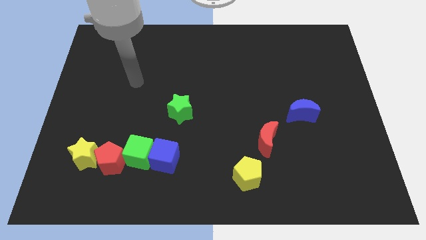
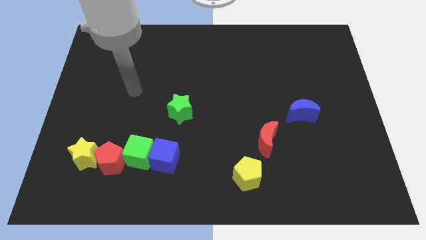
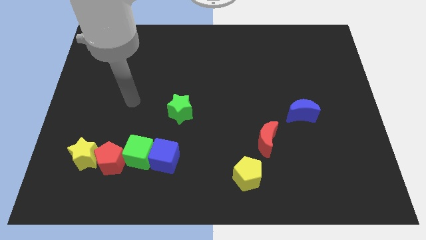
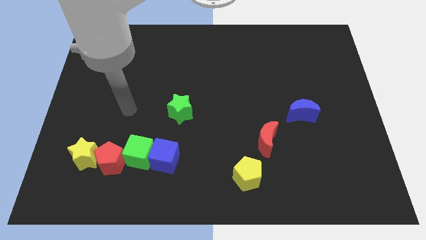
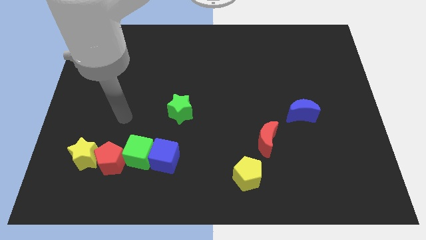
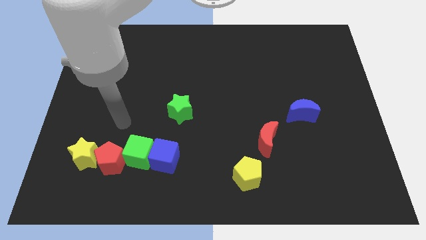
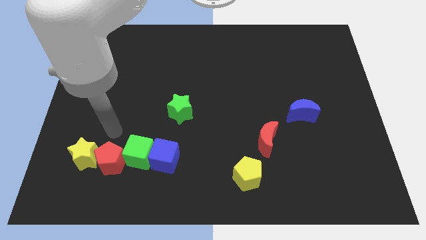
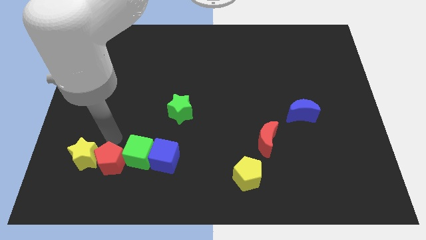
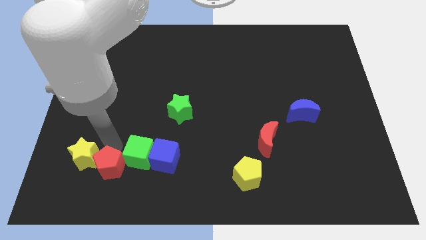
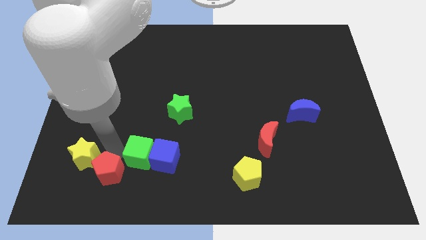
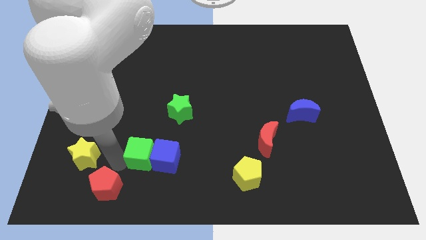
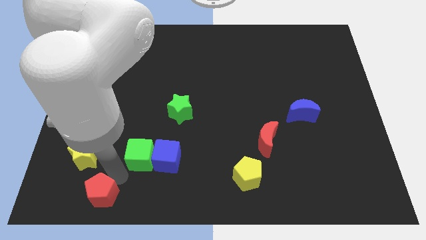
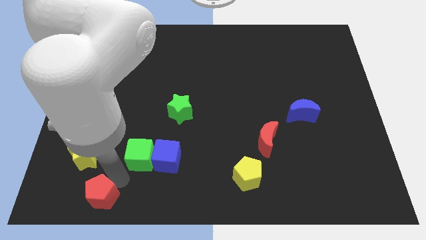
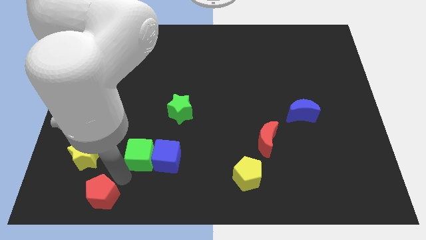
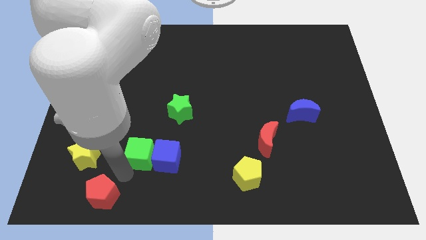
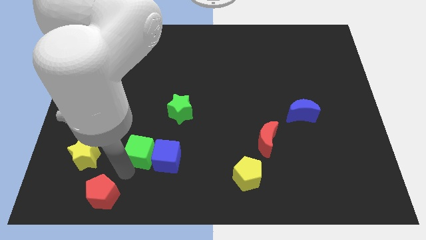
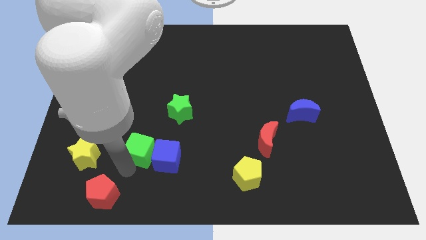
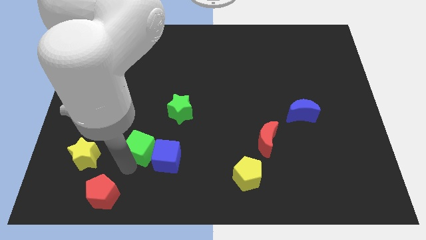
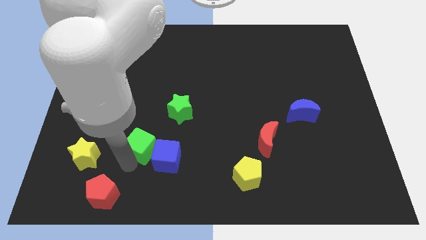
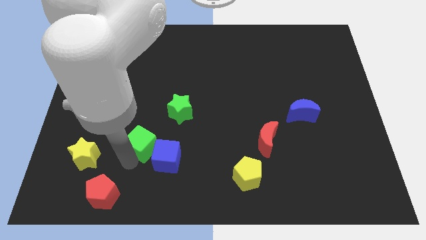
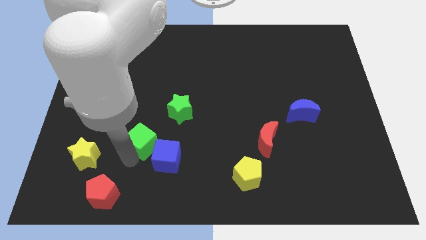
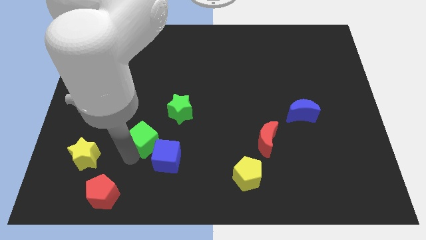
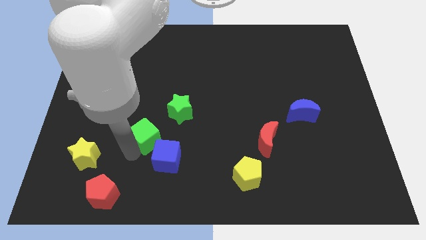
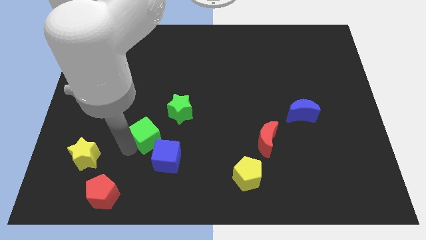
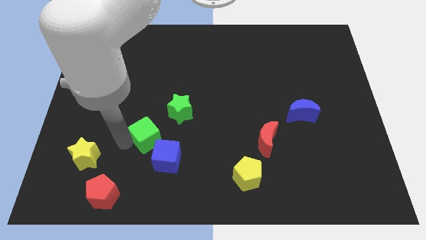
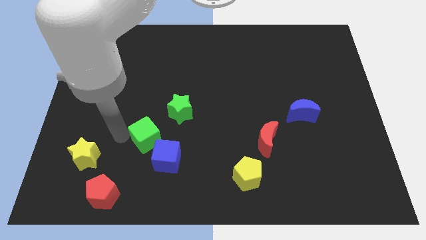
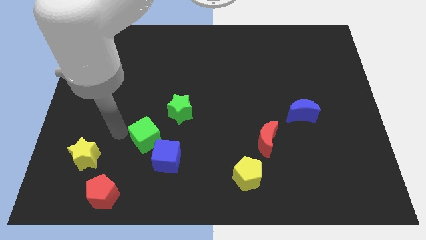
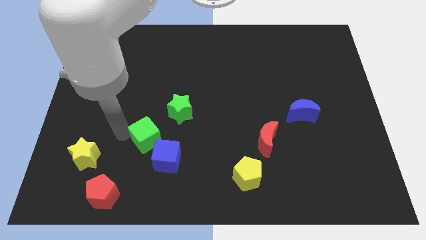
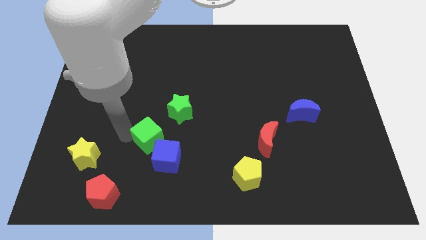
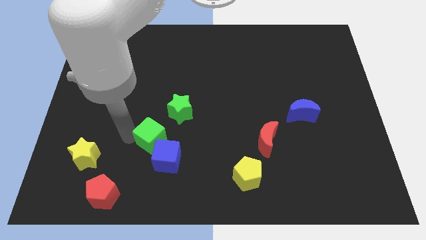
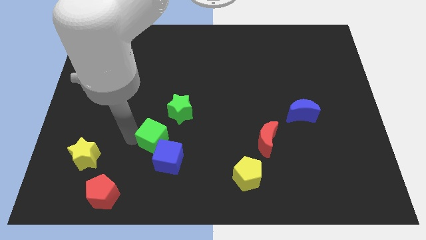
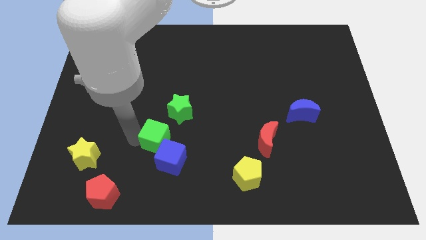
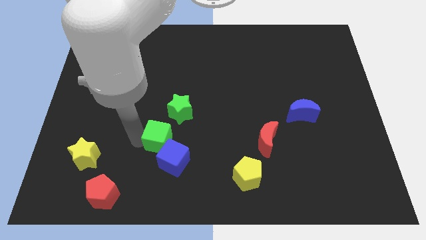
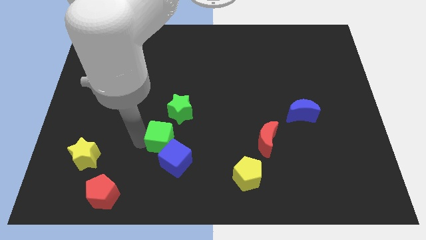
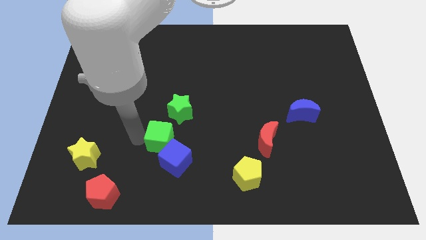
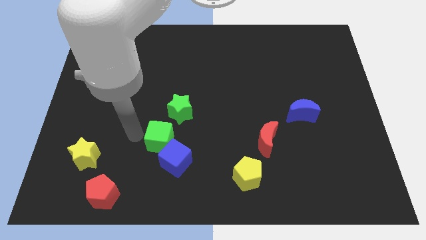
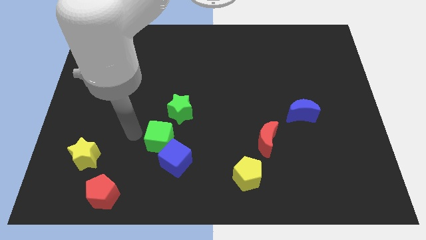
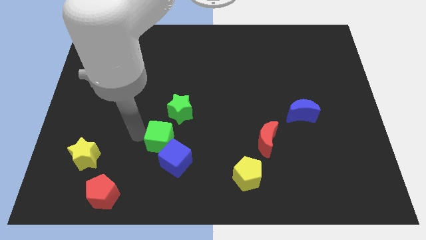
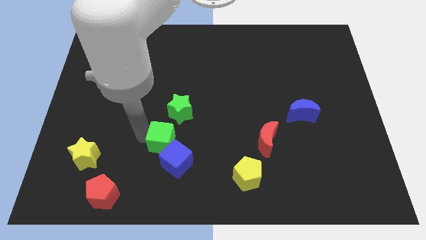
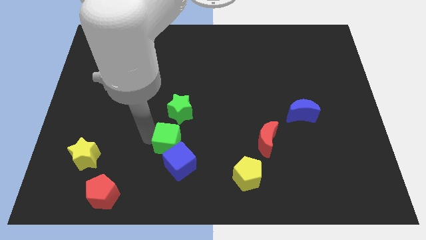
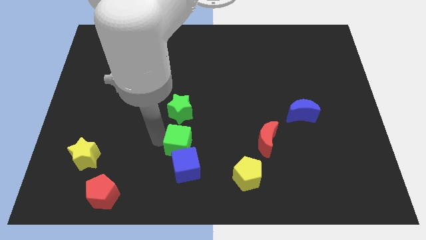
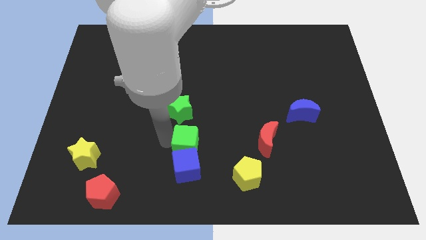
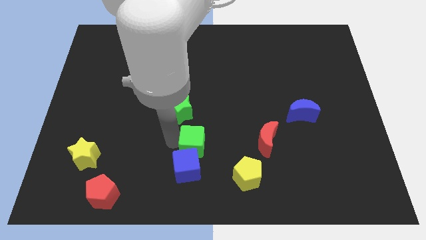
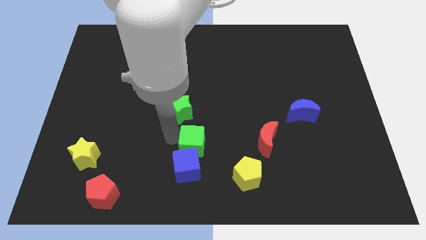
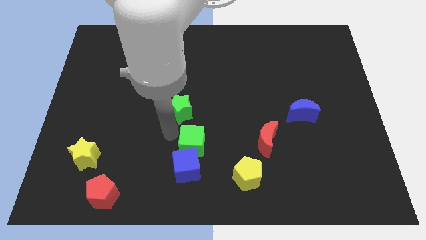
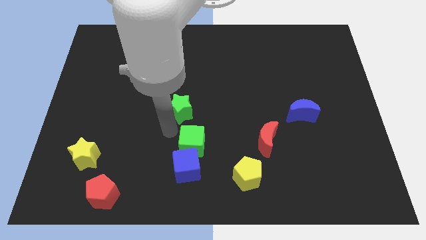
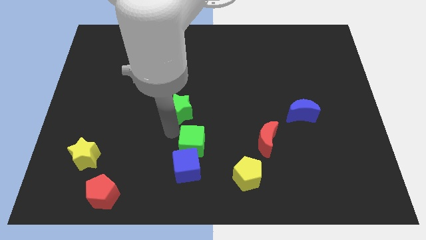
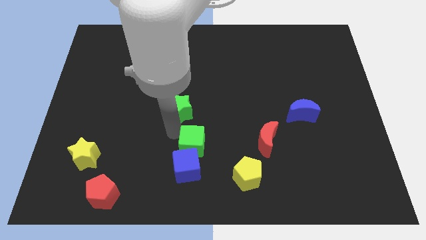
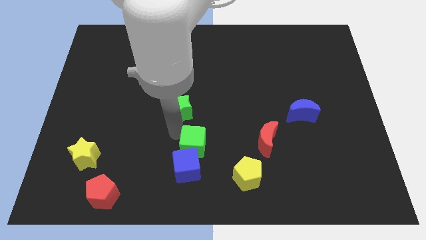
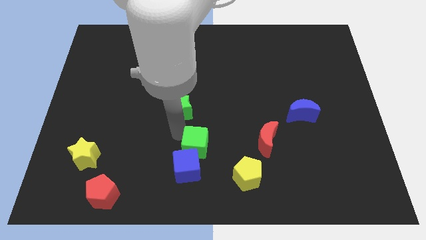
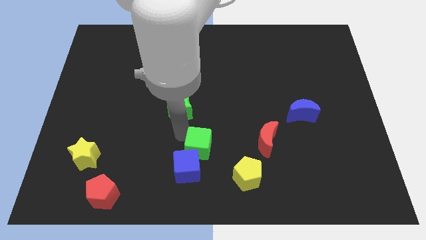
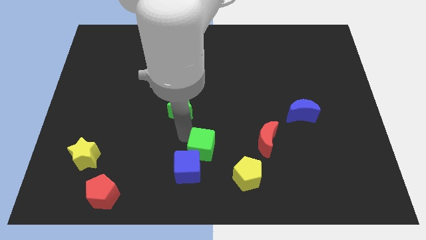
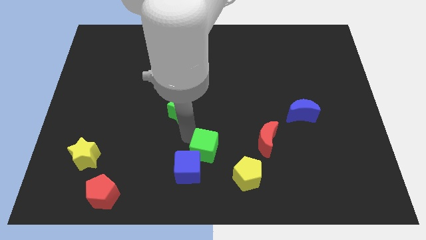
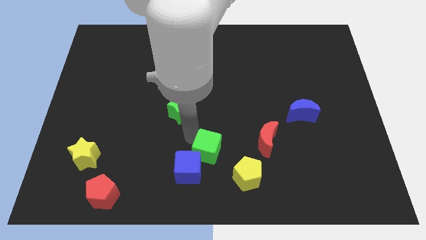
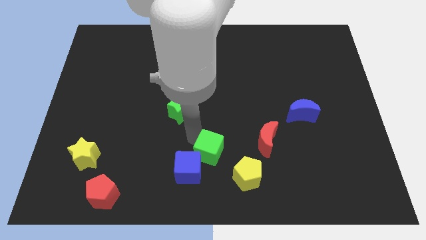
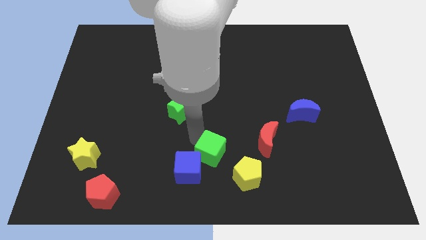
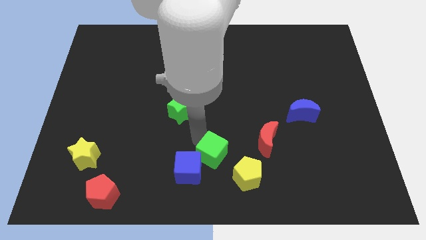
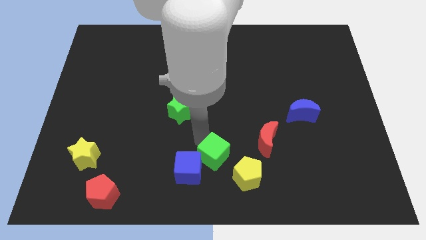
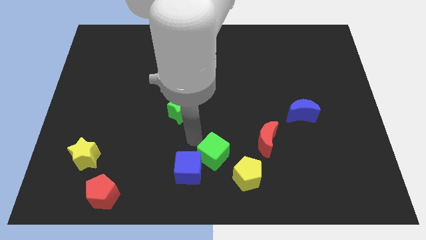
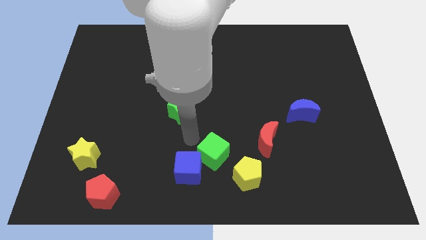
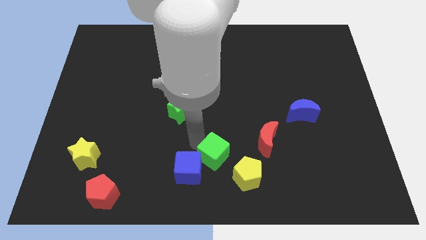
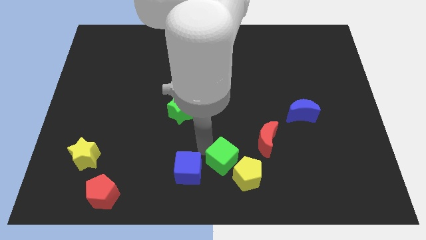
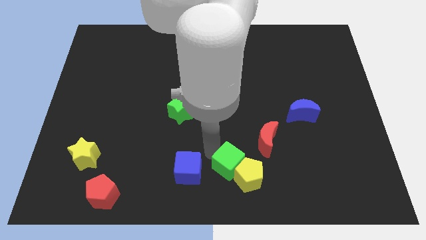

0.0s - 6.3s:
move the green cube close to the yellow pentagon

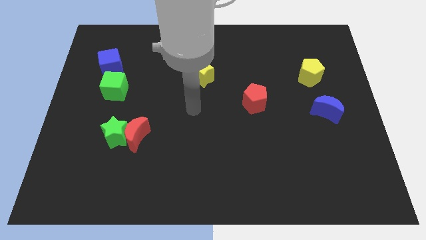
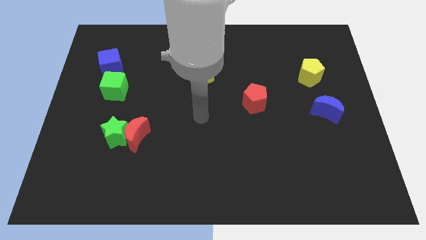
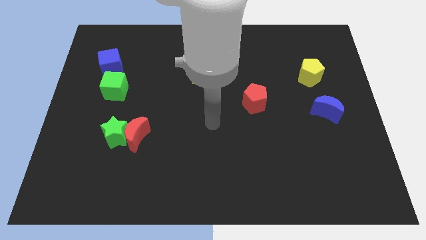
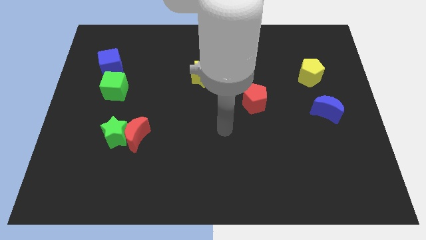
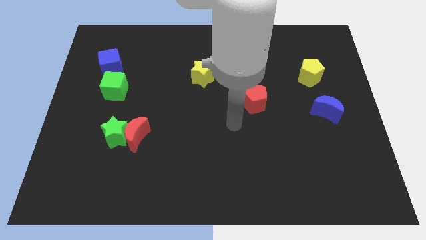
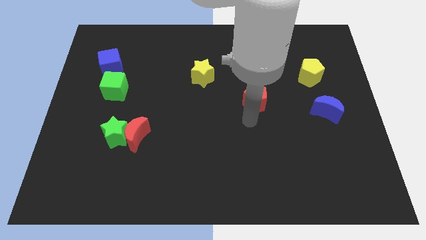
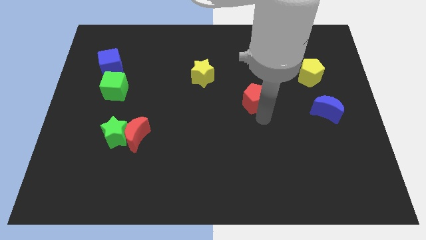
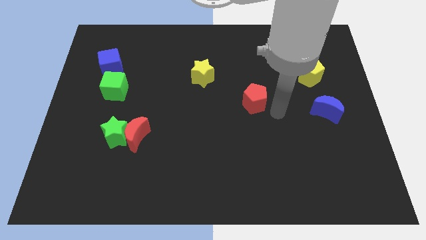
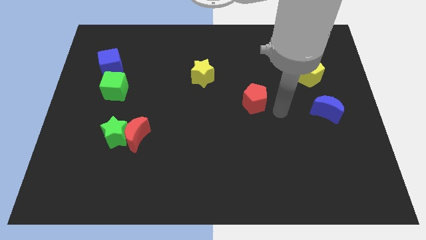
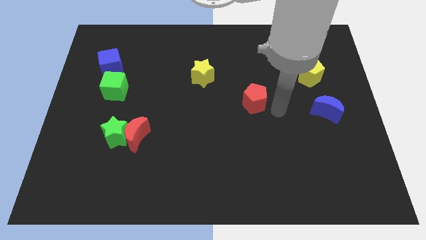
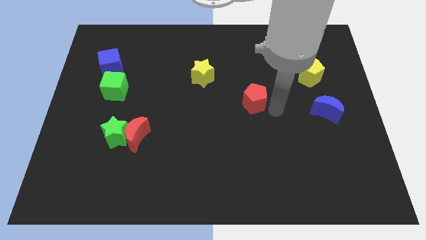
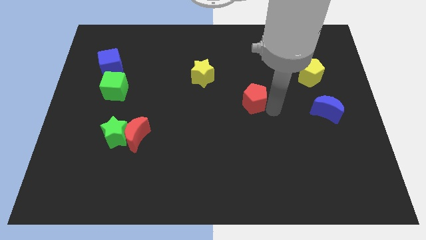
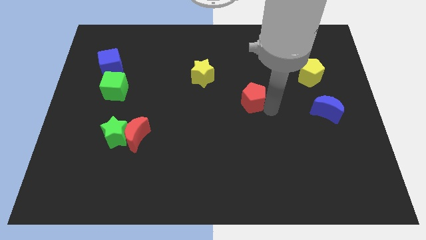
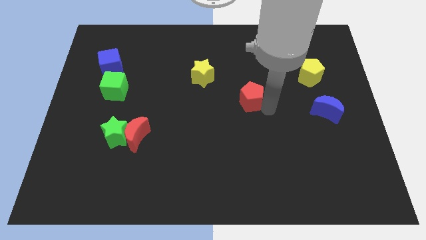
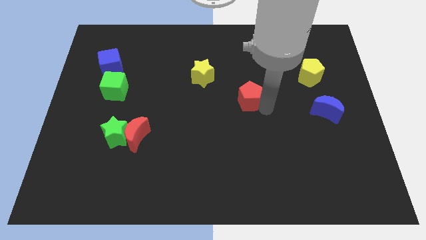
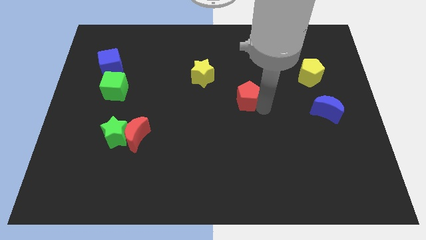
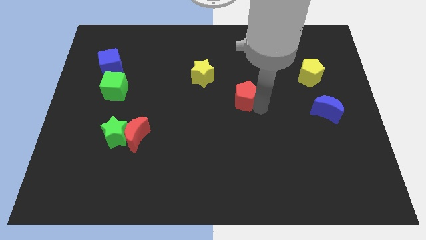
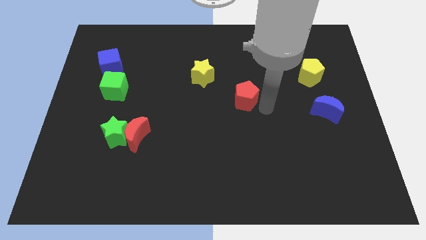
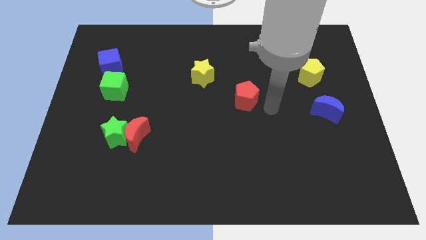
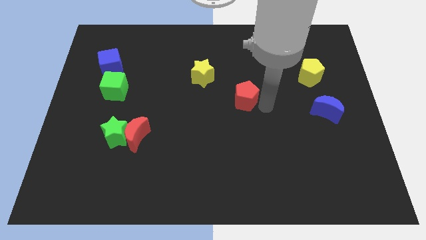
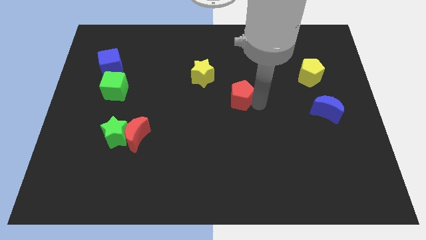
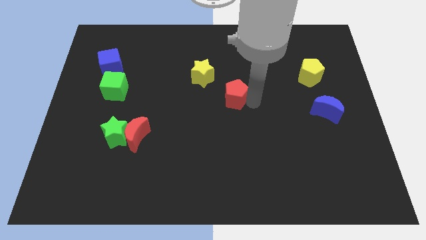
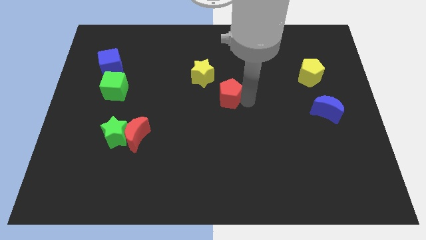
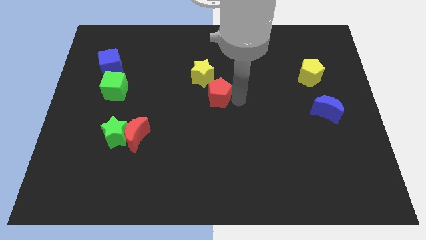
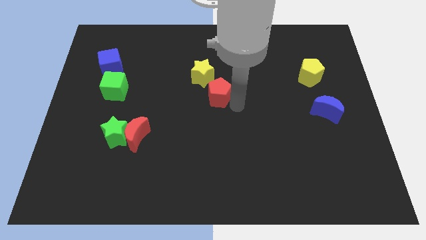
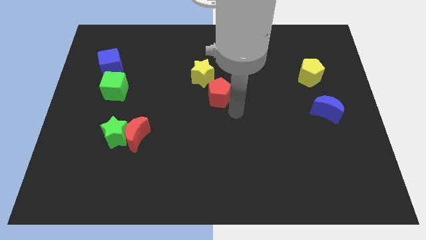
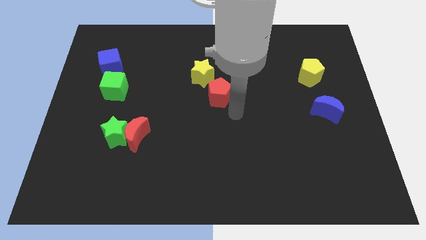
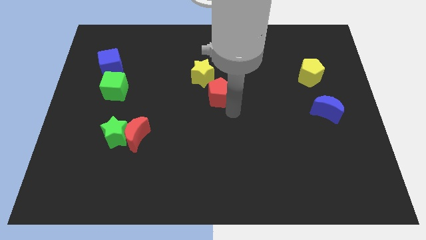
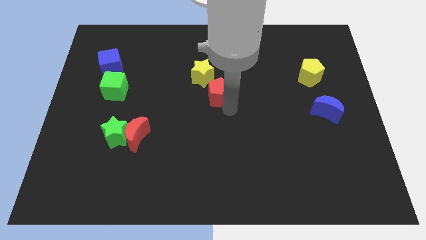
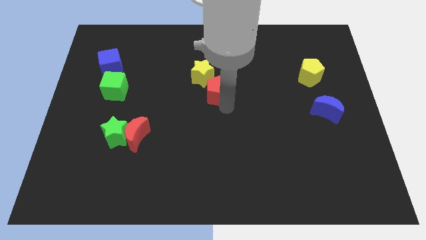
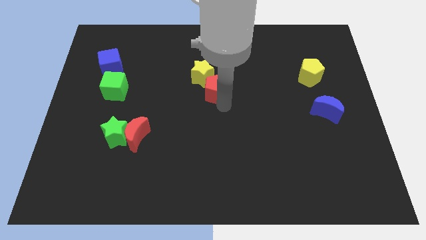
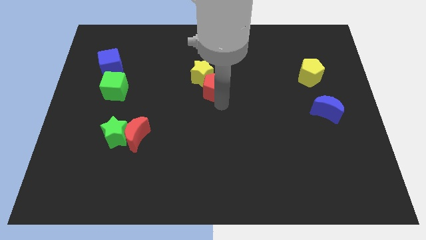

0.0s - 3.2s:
move the red pentagon towards the yellow star
